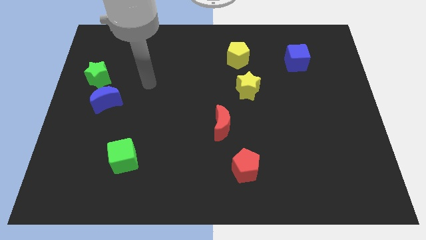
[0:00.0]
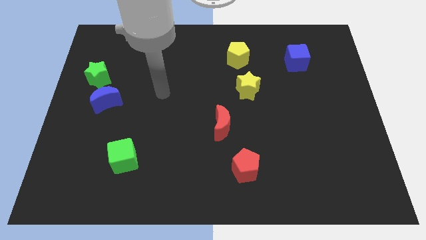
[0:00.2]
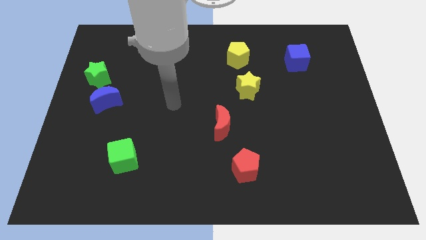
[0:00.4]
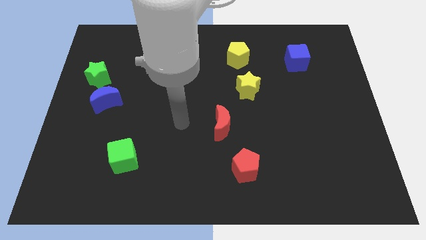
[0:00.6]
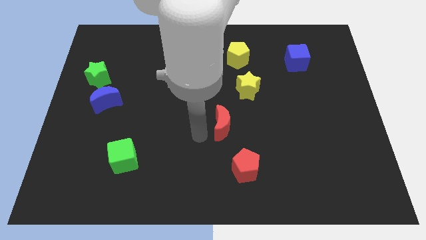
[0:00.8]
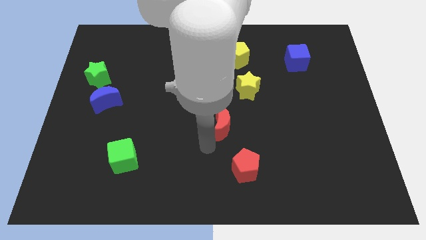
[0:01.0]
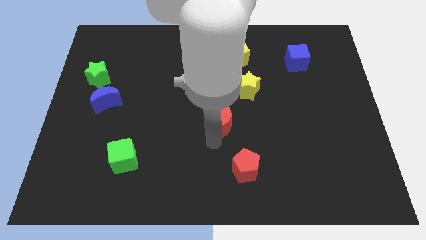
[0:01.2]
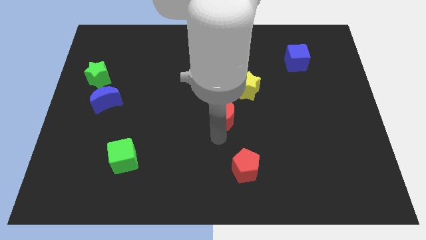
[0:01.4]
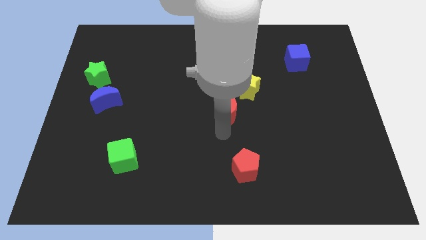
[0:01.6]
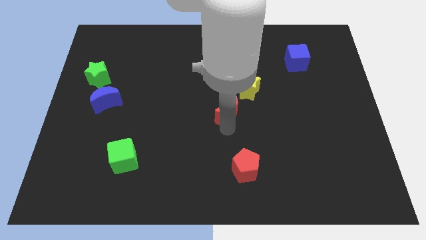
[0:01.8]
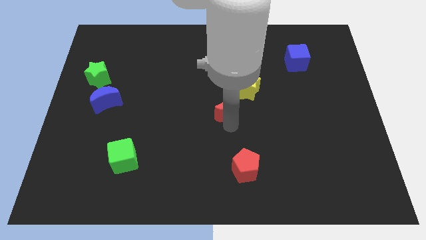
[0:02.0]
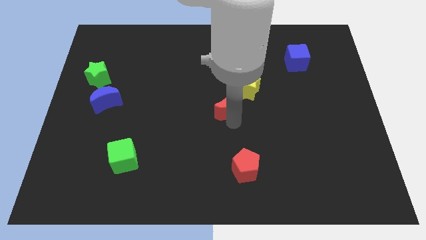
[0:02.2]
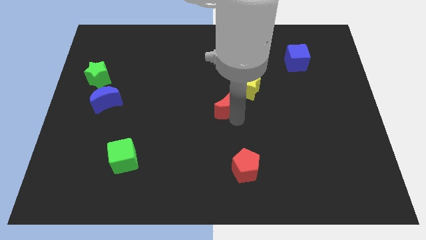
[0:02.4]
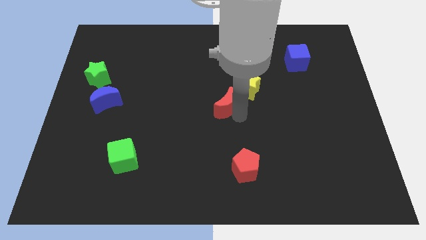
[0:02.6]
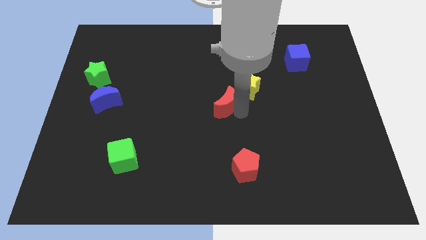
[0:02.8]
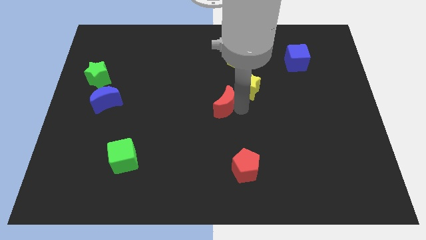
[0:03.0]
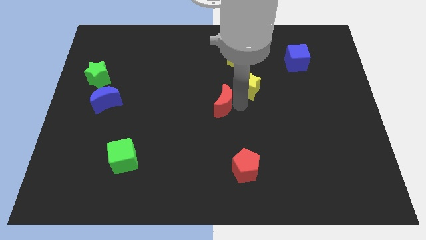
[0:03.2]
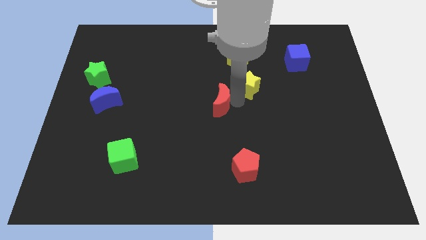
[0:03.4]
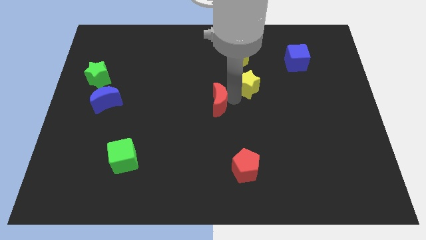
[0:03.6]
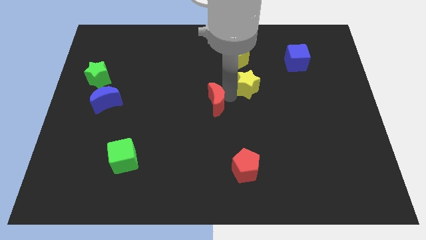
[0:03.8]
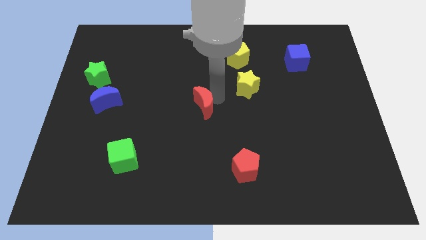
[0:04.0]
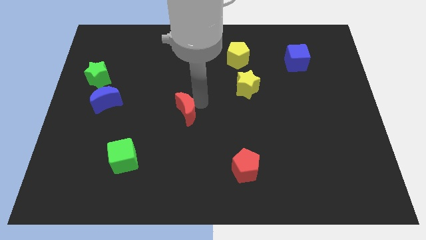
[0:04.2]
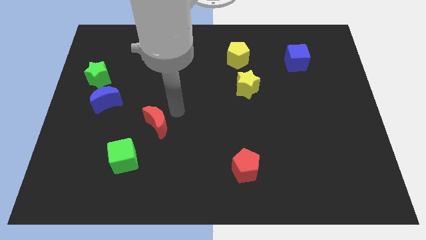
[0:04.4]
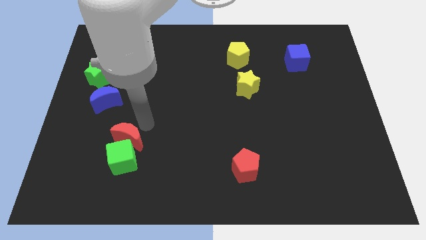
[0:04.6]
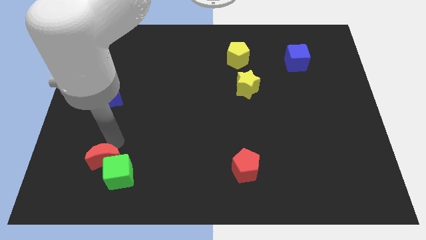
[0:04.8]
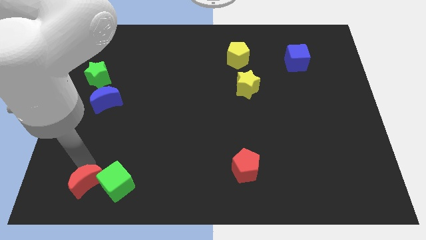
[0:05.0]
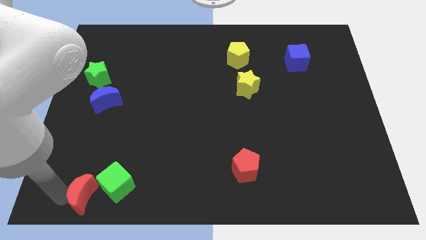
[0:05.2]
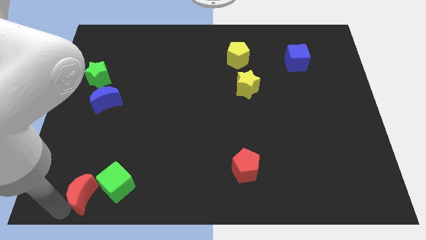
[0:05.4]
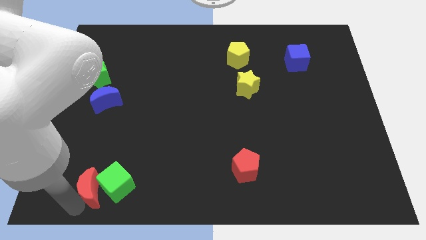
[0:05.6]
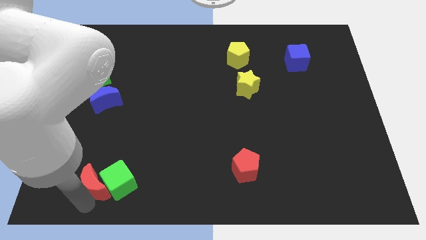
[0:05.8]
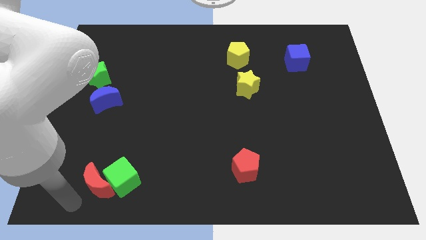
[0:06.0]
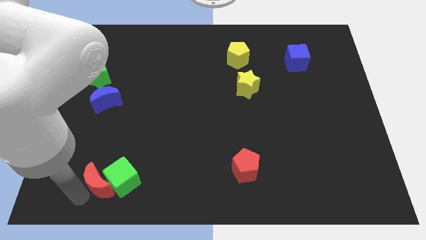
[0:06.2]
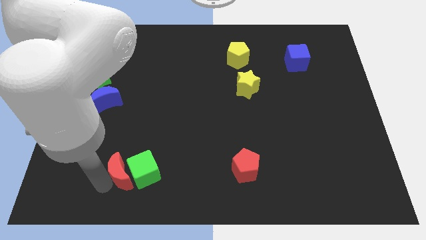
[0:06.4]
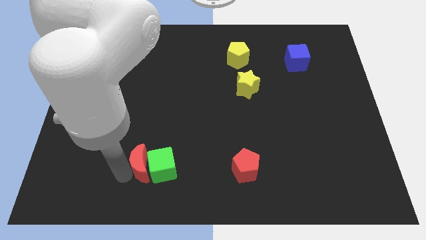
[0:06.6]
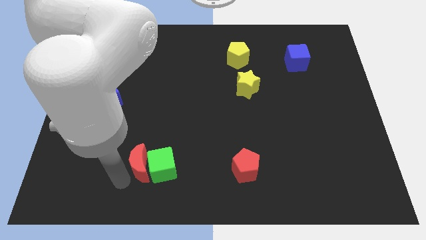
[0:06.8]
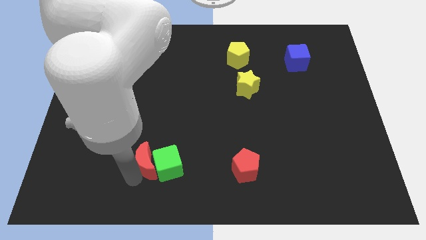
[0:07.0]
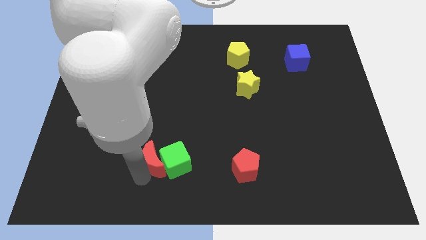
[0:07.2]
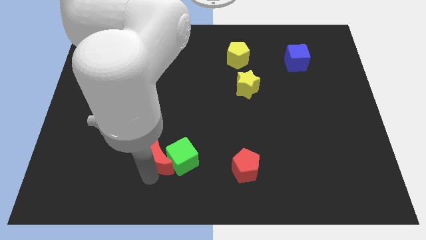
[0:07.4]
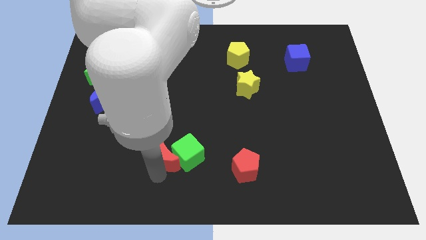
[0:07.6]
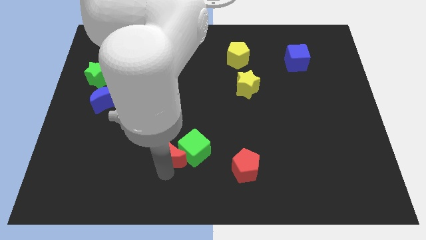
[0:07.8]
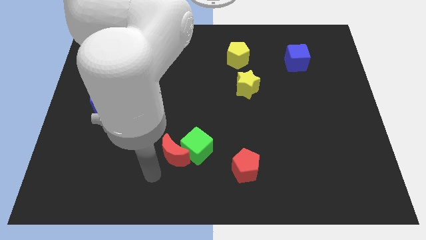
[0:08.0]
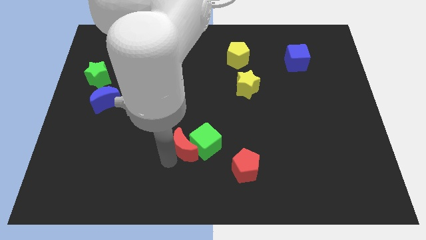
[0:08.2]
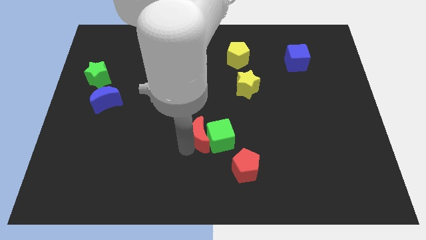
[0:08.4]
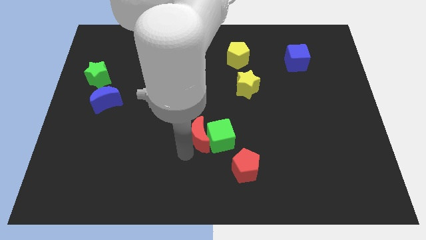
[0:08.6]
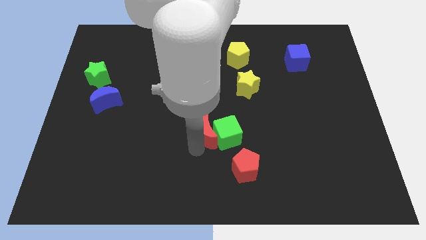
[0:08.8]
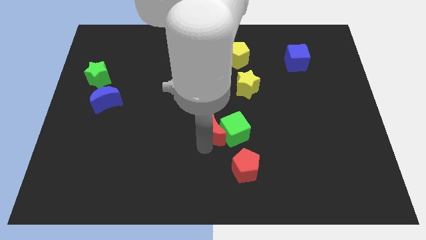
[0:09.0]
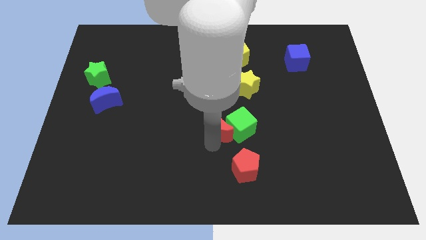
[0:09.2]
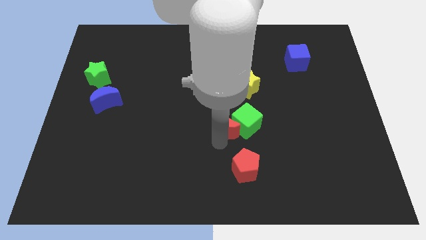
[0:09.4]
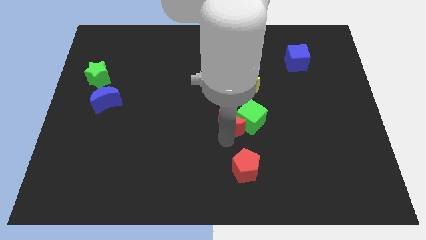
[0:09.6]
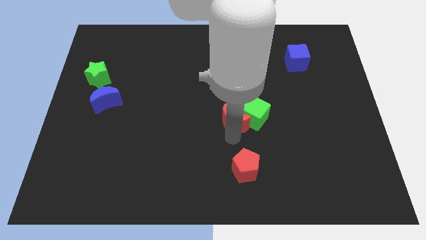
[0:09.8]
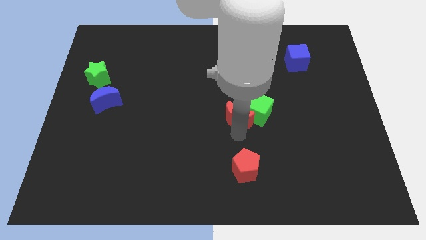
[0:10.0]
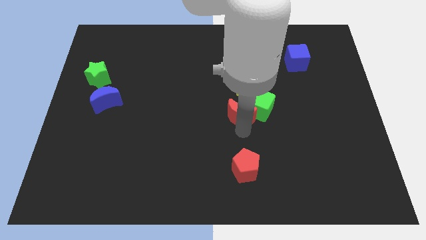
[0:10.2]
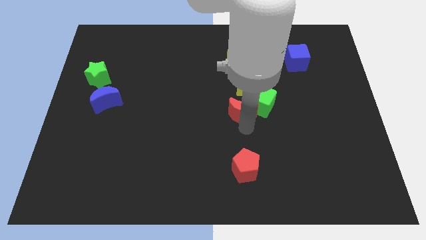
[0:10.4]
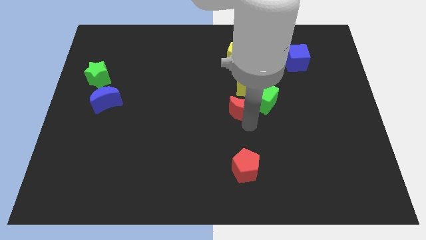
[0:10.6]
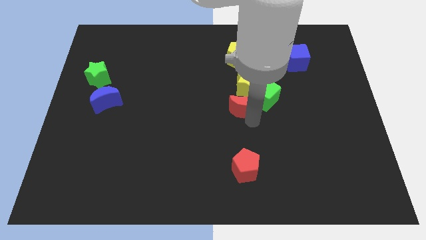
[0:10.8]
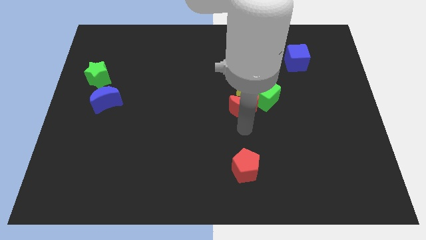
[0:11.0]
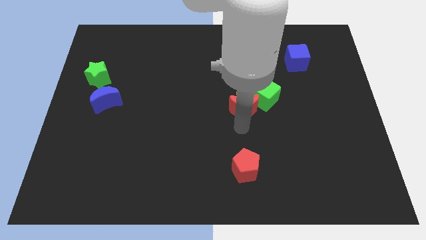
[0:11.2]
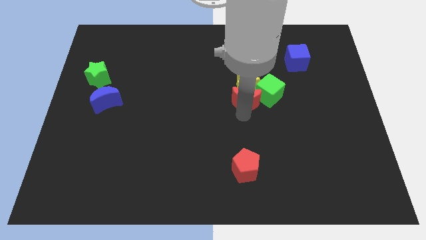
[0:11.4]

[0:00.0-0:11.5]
move the red moon next to the yellow star

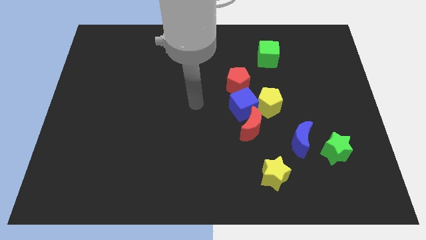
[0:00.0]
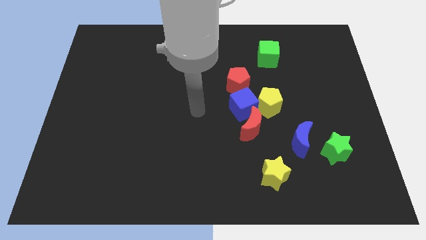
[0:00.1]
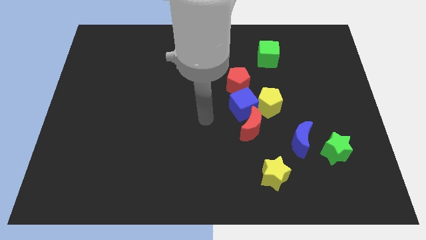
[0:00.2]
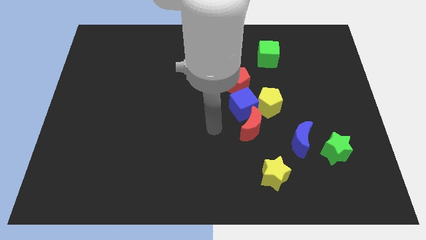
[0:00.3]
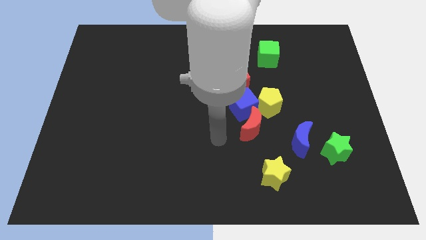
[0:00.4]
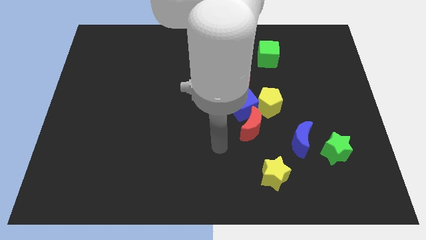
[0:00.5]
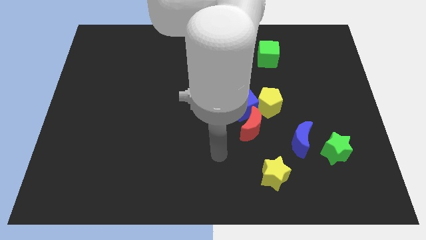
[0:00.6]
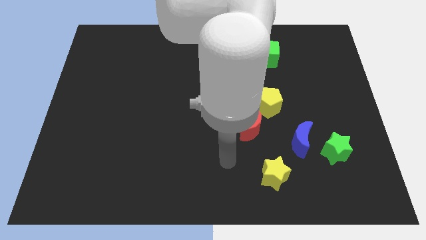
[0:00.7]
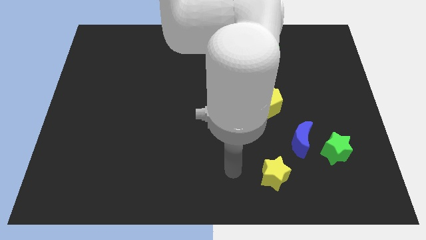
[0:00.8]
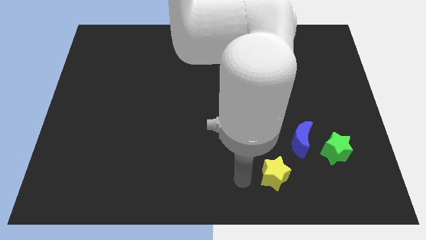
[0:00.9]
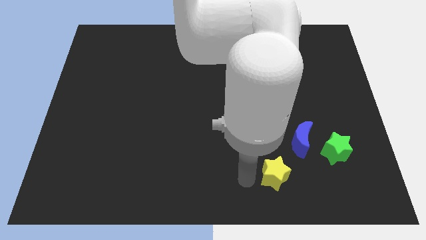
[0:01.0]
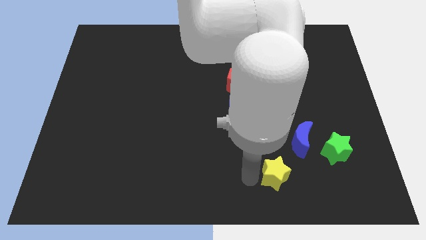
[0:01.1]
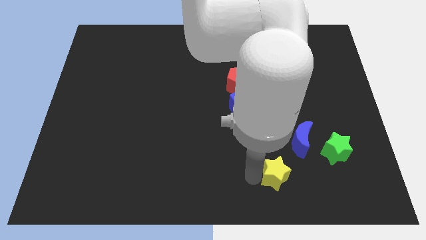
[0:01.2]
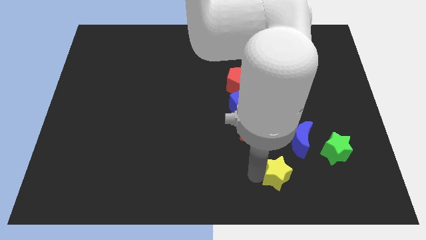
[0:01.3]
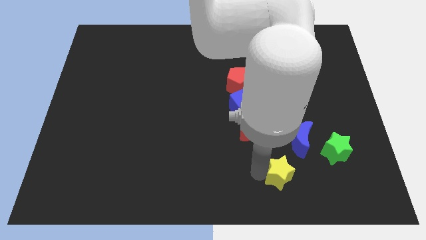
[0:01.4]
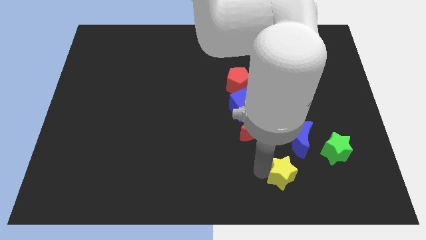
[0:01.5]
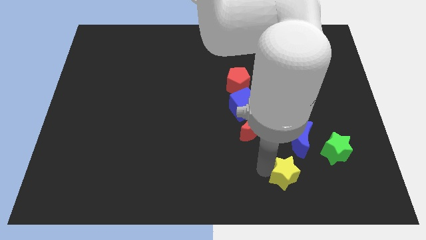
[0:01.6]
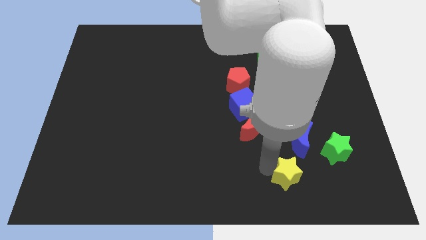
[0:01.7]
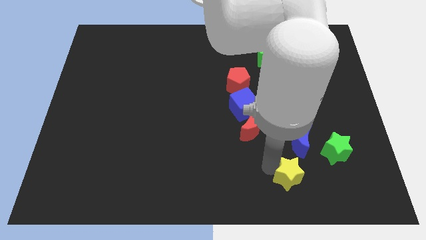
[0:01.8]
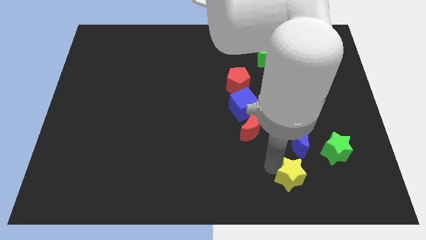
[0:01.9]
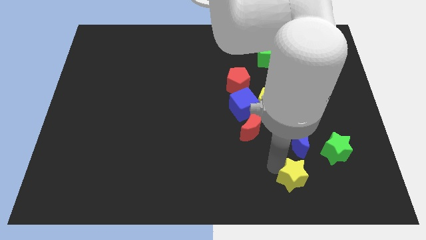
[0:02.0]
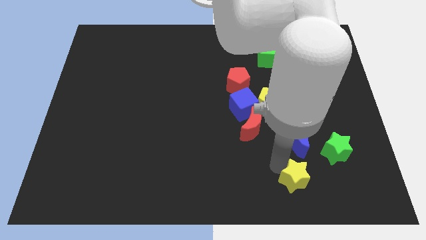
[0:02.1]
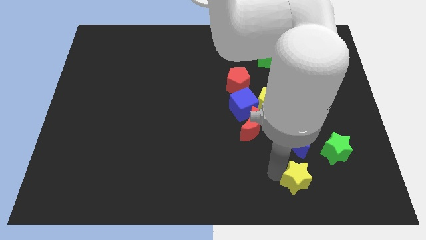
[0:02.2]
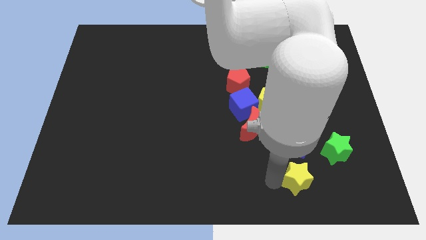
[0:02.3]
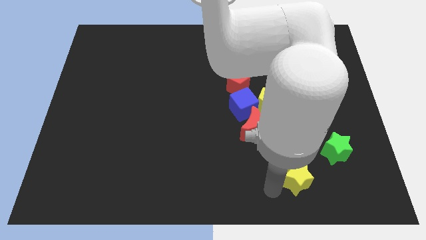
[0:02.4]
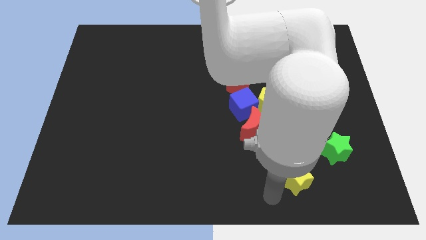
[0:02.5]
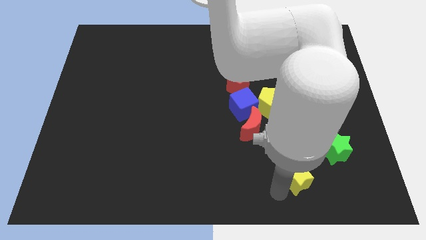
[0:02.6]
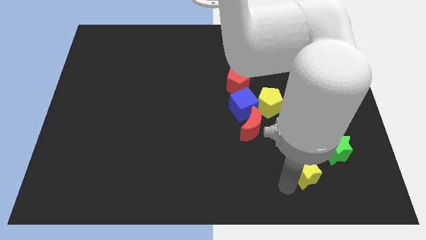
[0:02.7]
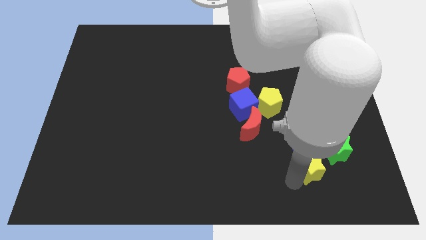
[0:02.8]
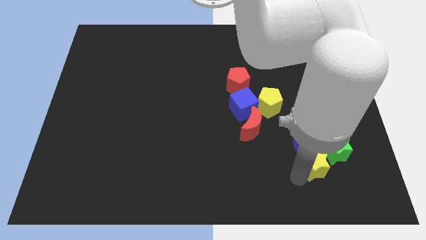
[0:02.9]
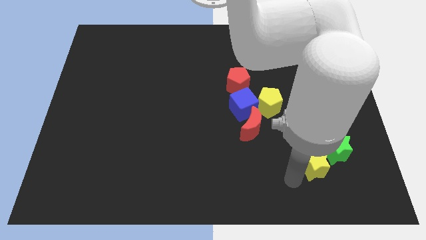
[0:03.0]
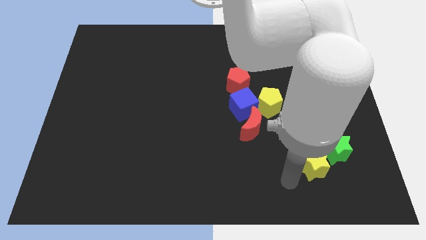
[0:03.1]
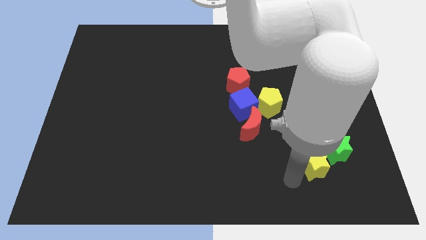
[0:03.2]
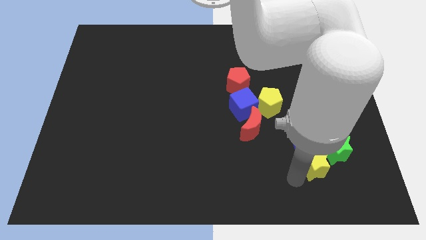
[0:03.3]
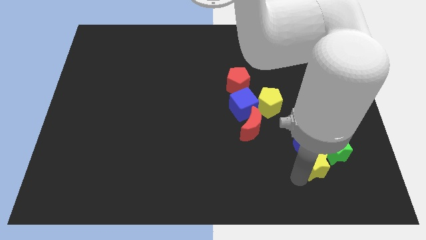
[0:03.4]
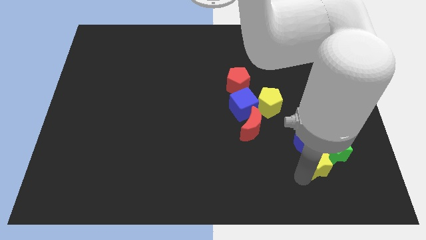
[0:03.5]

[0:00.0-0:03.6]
slide the yellow star close to the green star
